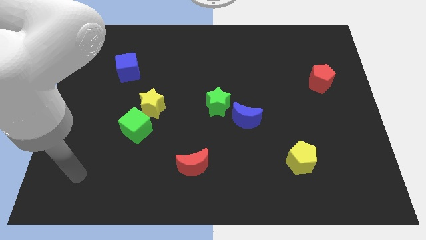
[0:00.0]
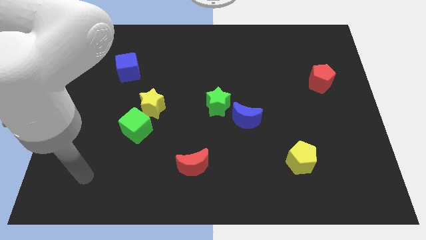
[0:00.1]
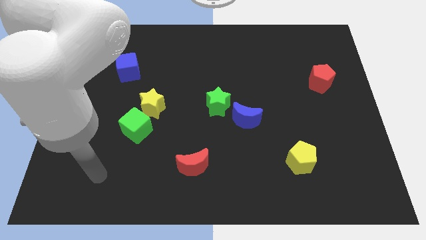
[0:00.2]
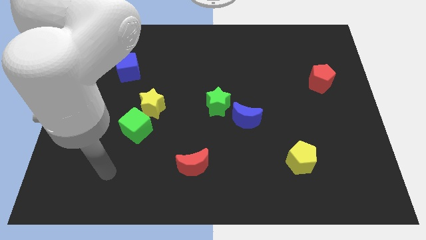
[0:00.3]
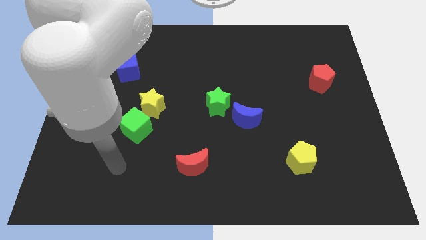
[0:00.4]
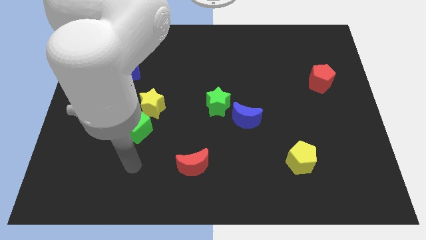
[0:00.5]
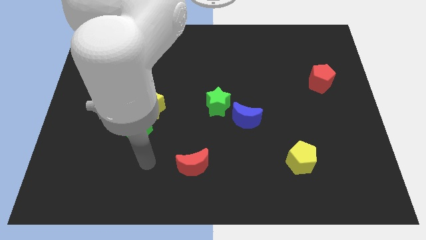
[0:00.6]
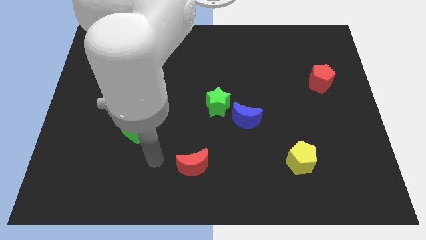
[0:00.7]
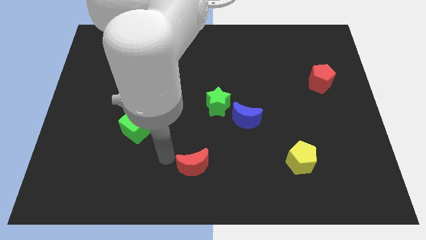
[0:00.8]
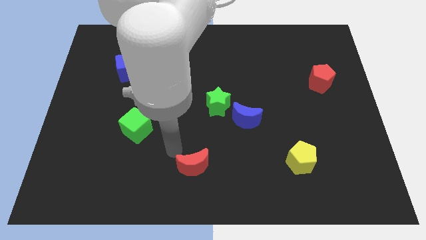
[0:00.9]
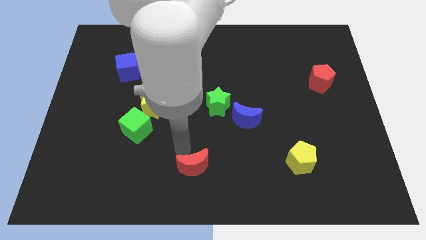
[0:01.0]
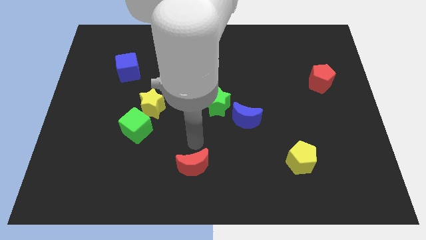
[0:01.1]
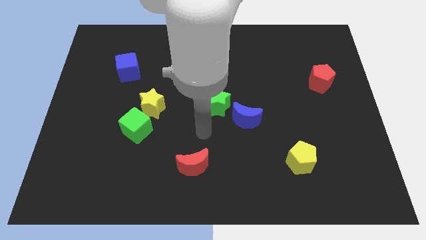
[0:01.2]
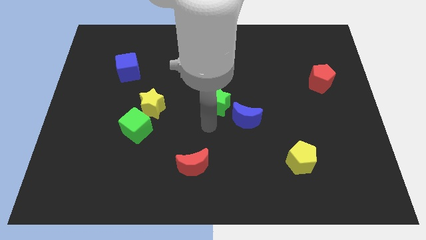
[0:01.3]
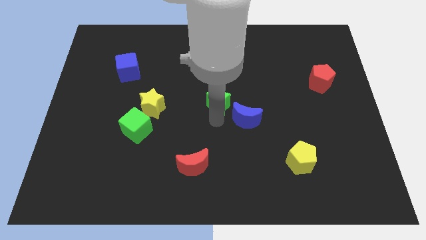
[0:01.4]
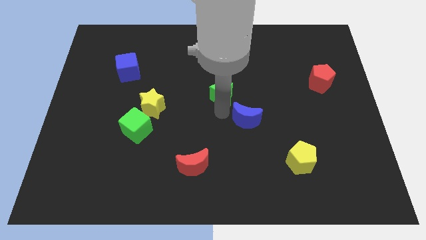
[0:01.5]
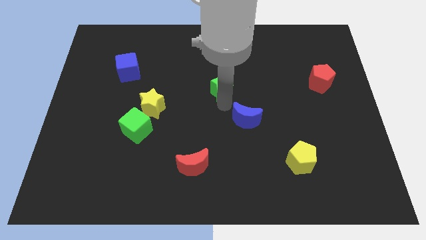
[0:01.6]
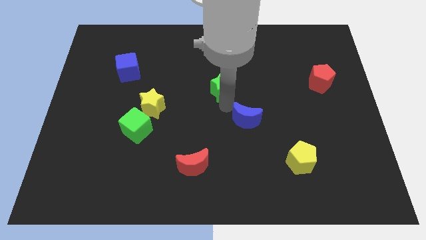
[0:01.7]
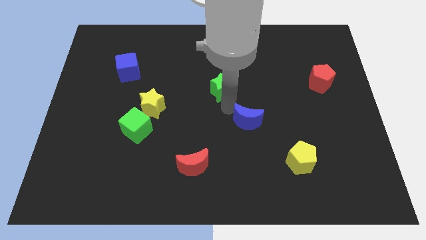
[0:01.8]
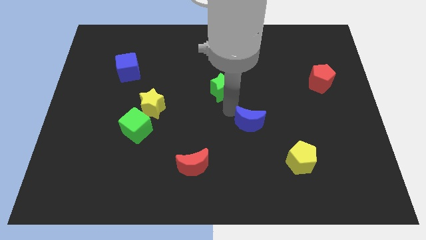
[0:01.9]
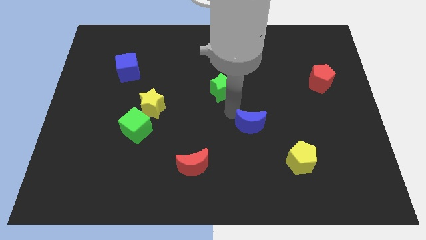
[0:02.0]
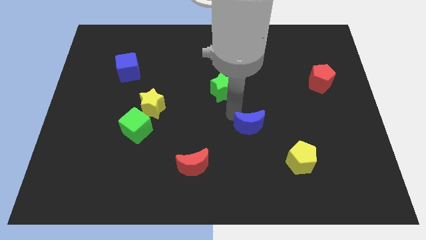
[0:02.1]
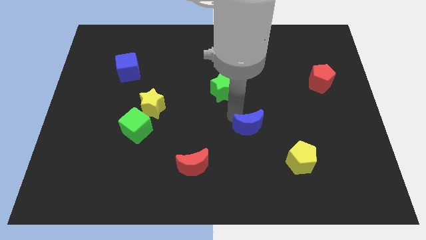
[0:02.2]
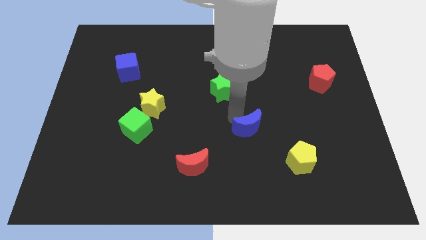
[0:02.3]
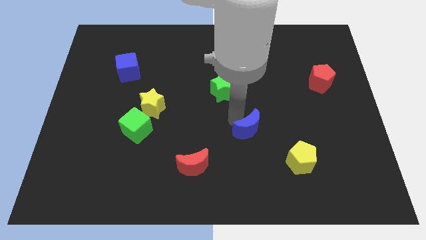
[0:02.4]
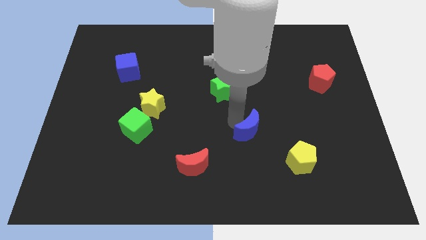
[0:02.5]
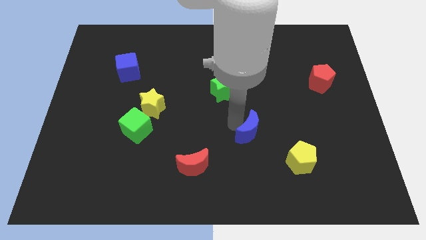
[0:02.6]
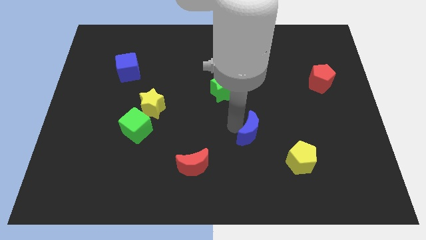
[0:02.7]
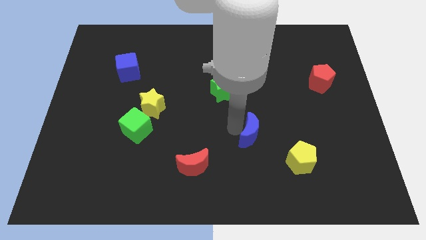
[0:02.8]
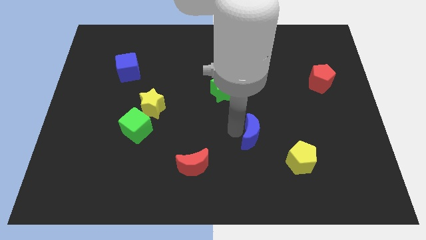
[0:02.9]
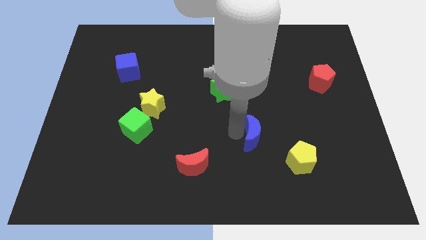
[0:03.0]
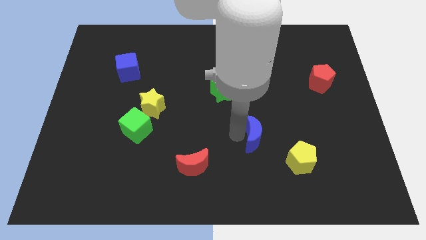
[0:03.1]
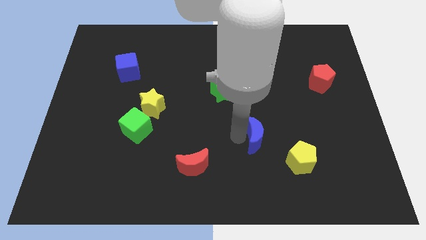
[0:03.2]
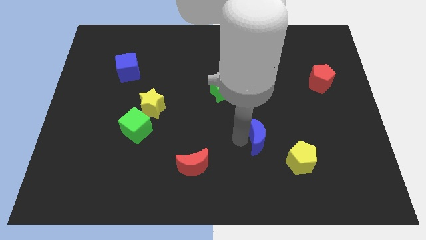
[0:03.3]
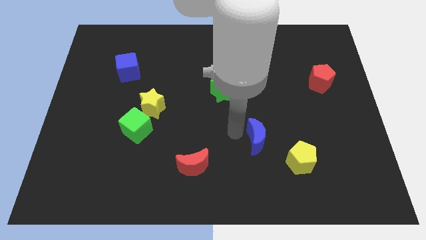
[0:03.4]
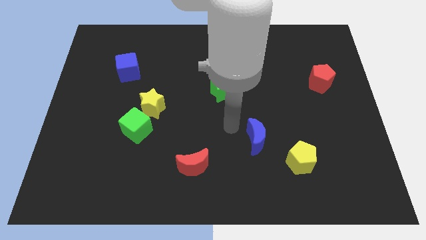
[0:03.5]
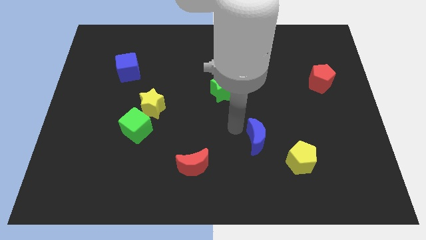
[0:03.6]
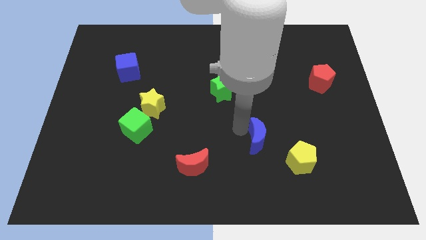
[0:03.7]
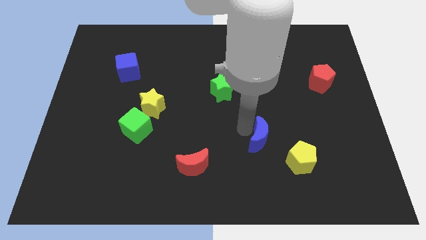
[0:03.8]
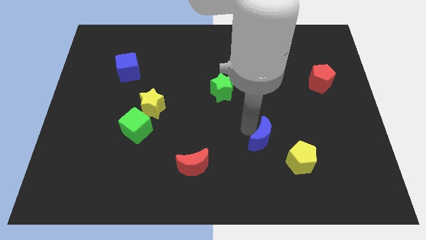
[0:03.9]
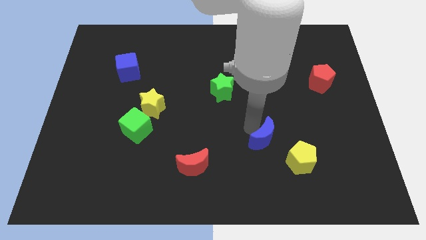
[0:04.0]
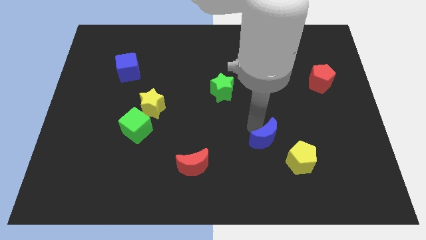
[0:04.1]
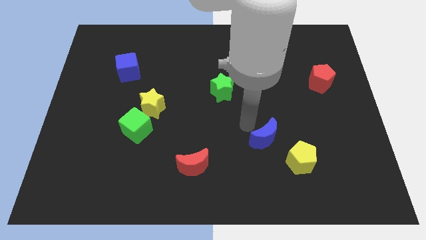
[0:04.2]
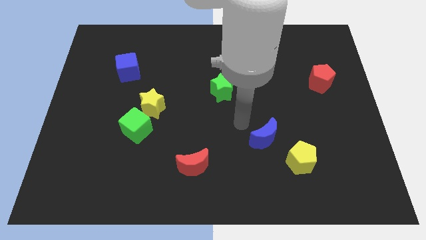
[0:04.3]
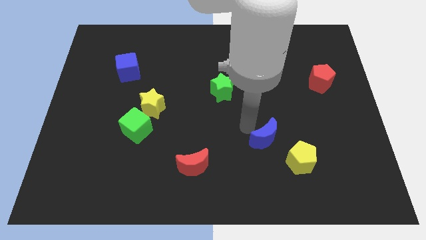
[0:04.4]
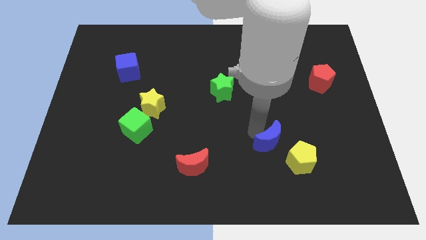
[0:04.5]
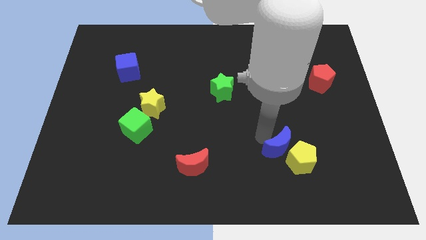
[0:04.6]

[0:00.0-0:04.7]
put the blue moon to the yellow pentagon

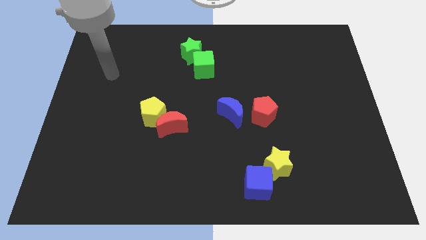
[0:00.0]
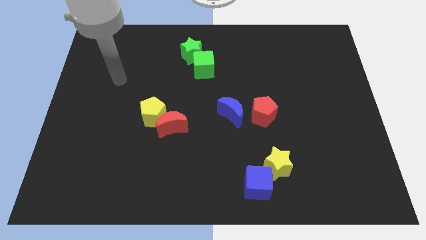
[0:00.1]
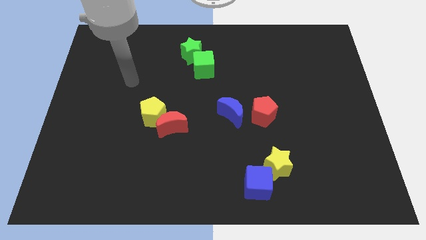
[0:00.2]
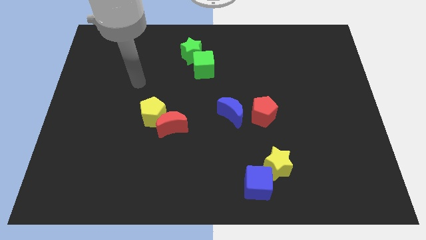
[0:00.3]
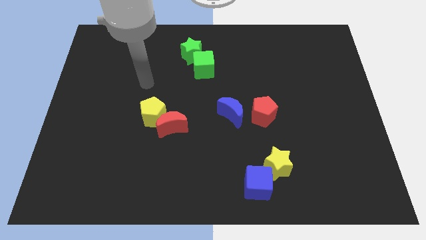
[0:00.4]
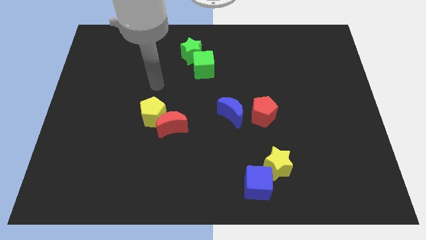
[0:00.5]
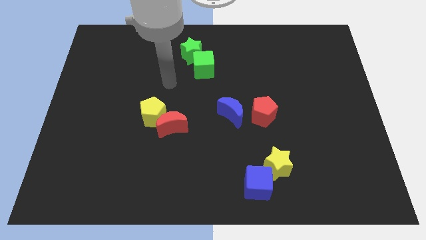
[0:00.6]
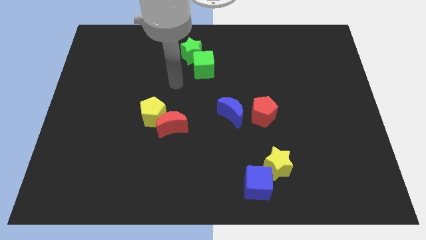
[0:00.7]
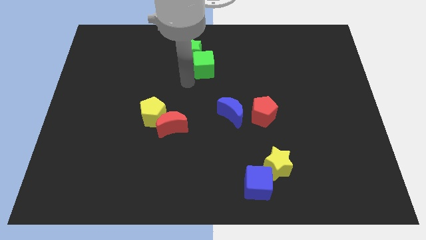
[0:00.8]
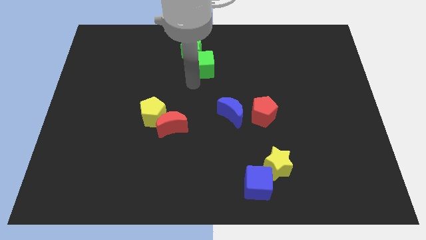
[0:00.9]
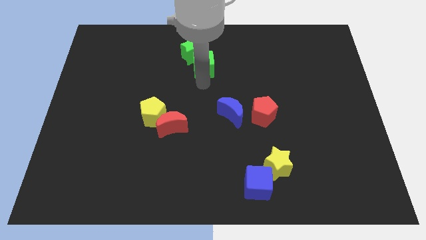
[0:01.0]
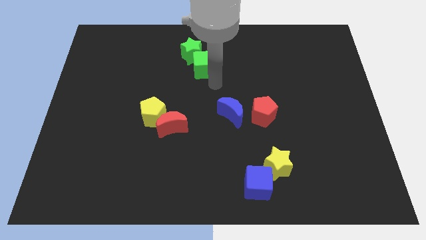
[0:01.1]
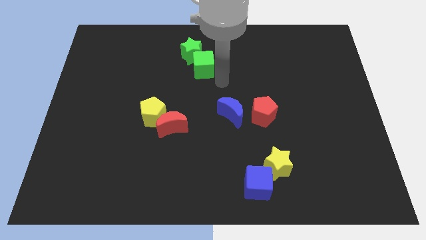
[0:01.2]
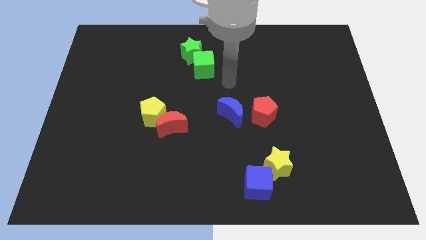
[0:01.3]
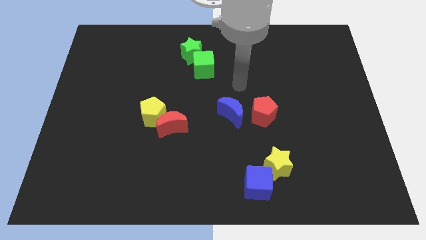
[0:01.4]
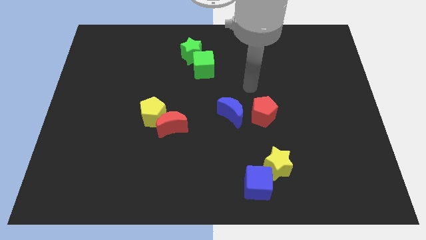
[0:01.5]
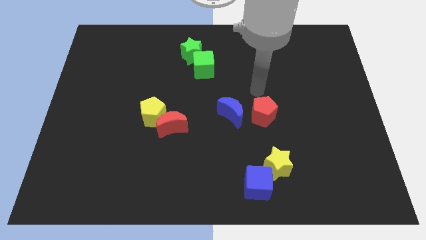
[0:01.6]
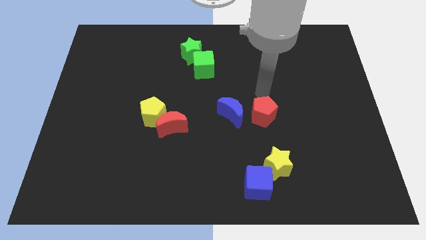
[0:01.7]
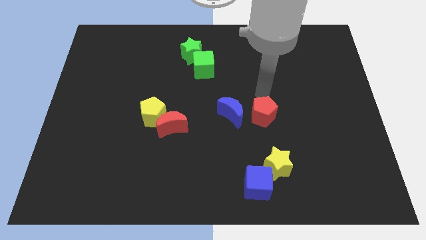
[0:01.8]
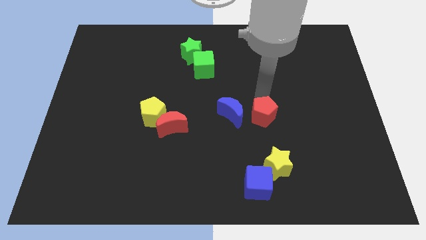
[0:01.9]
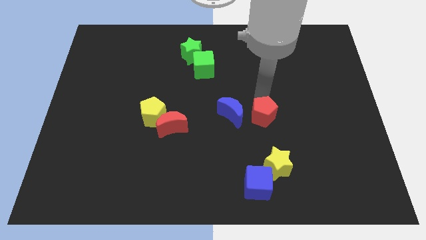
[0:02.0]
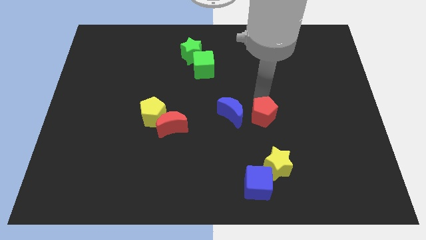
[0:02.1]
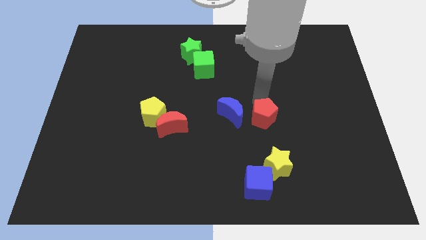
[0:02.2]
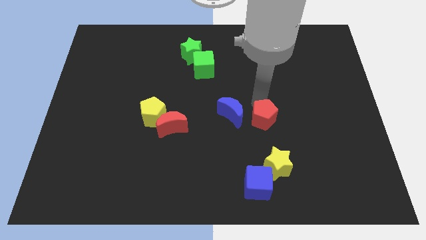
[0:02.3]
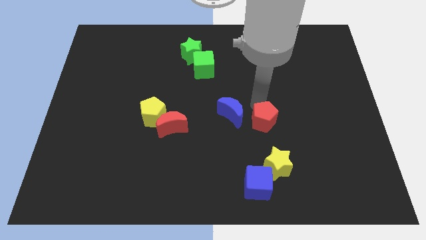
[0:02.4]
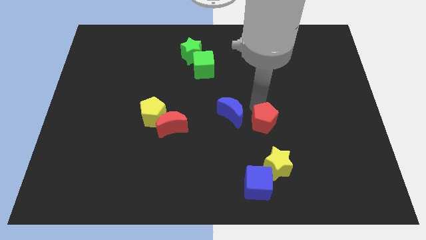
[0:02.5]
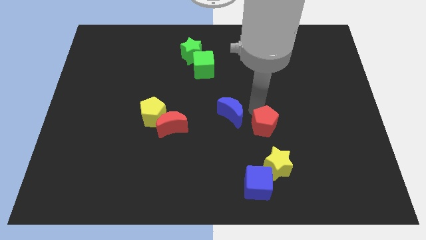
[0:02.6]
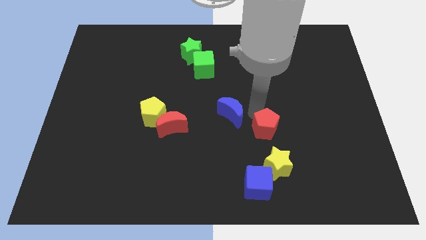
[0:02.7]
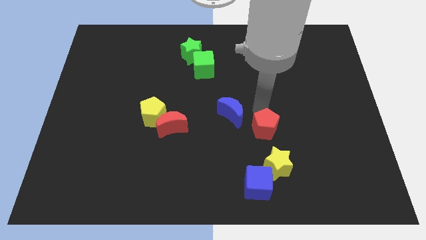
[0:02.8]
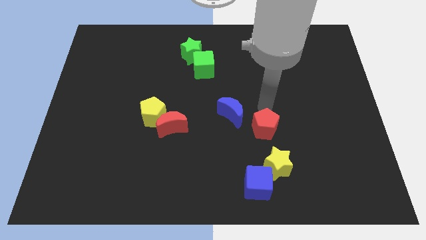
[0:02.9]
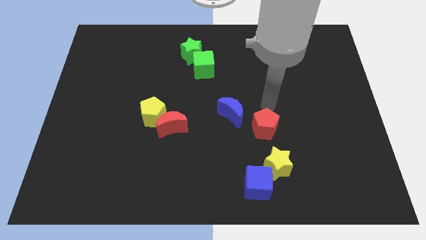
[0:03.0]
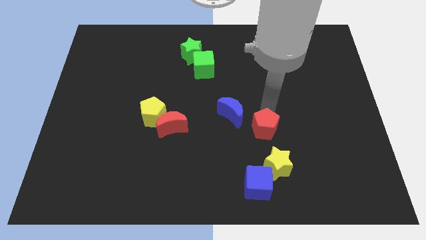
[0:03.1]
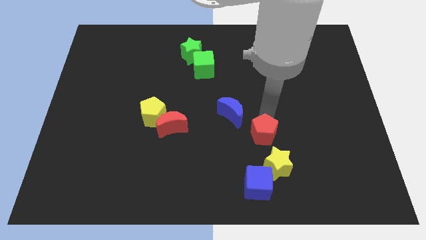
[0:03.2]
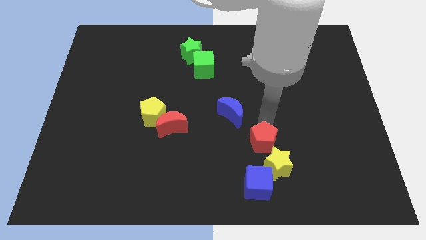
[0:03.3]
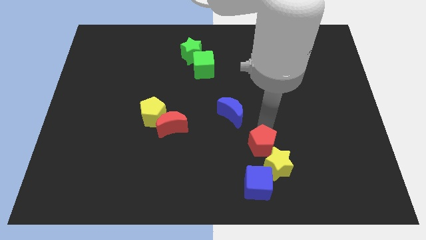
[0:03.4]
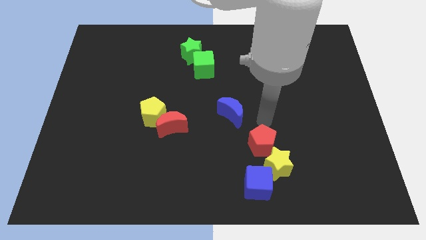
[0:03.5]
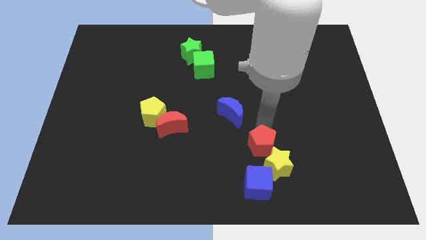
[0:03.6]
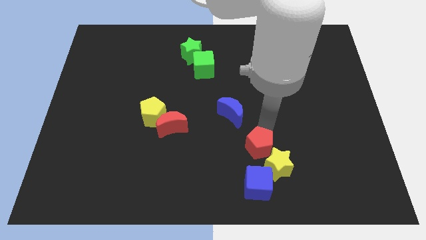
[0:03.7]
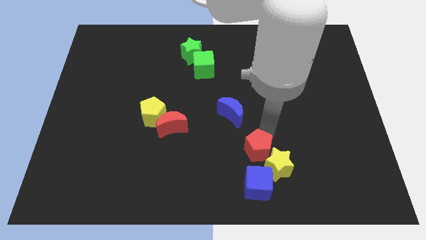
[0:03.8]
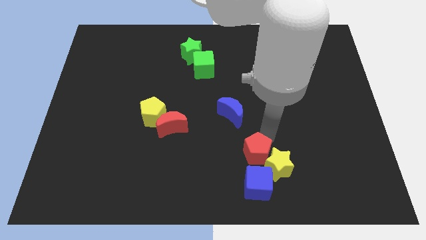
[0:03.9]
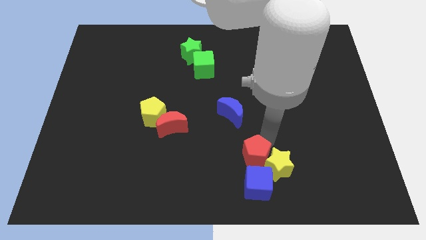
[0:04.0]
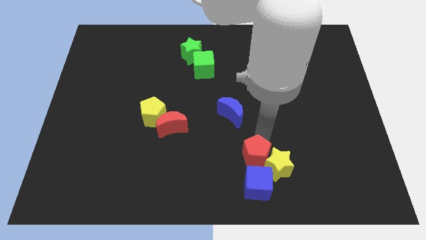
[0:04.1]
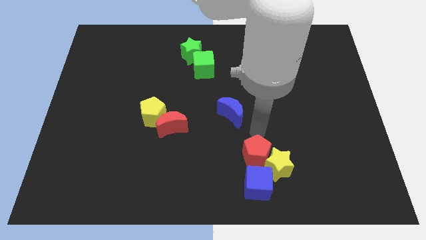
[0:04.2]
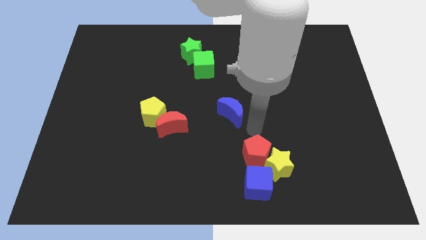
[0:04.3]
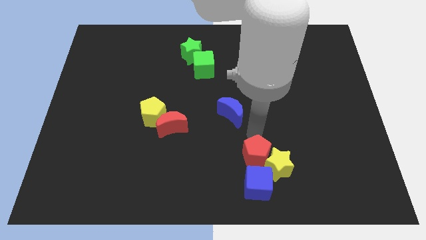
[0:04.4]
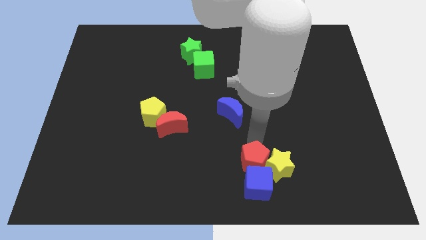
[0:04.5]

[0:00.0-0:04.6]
slide the red pentagon towards the blue cube
